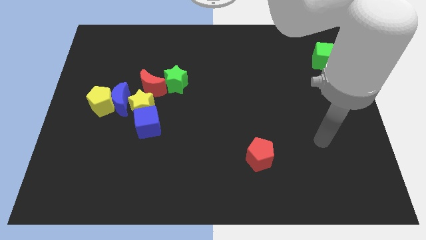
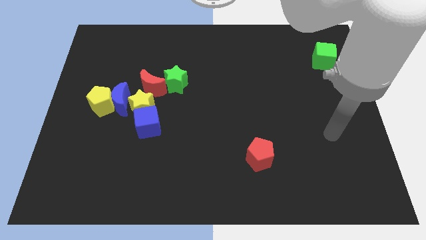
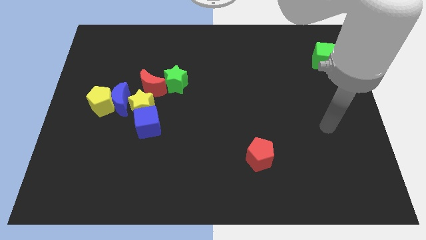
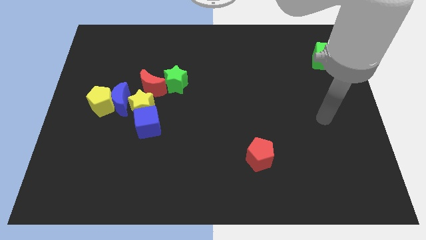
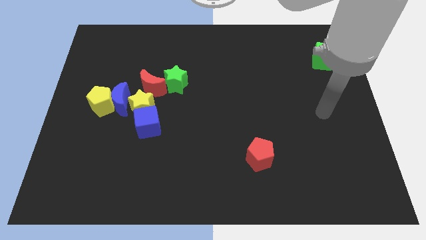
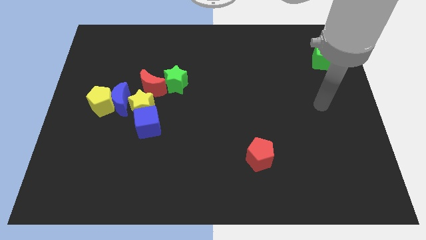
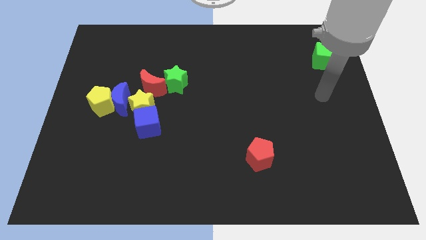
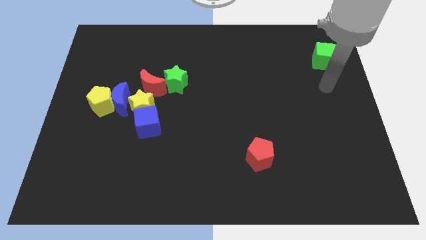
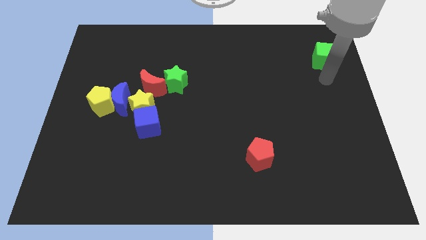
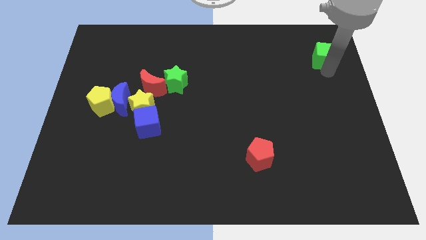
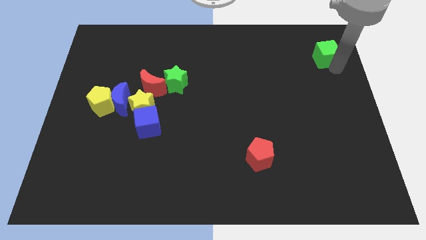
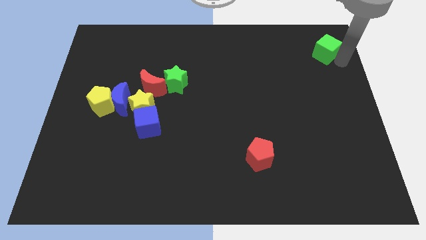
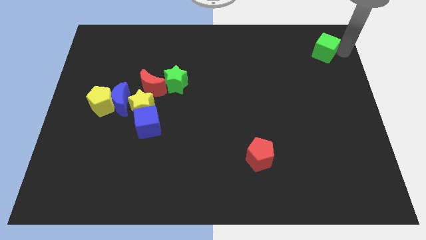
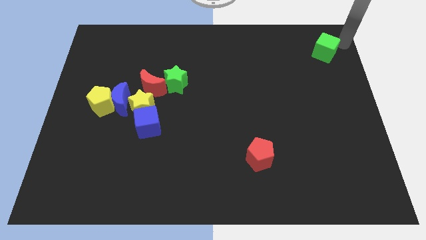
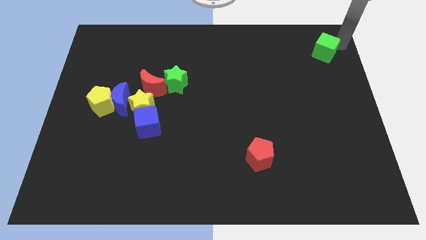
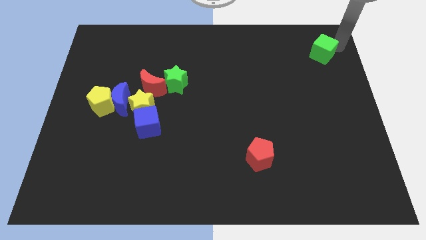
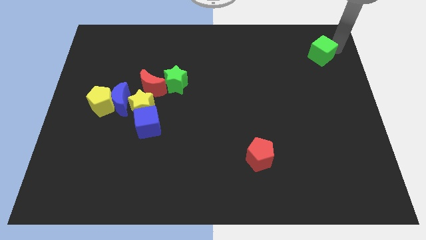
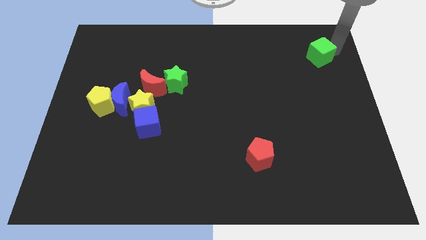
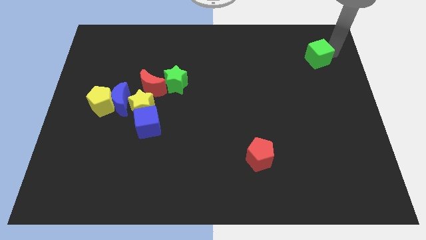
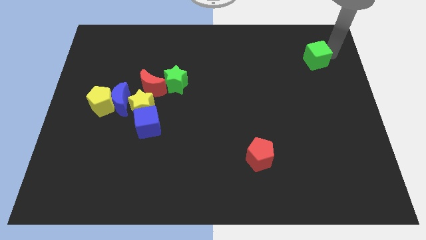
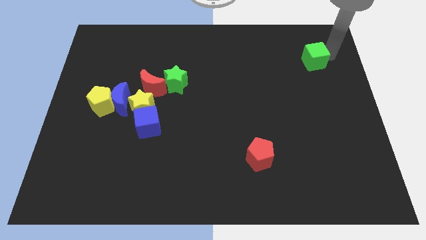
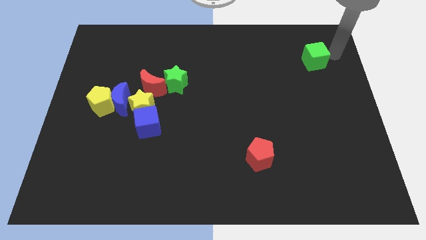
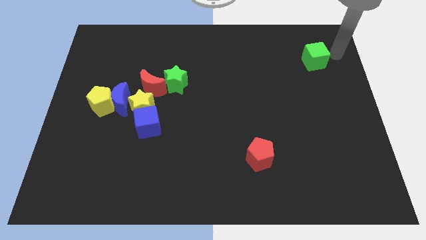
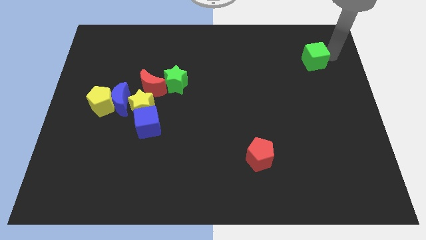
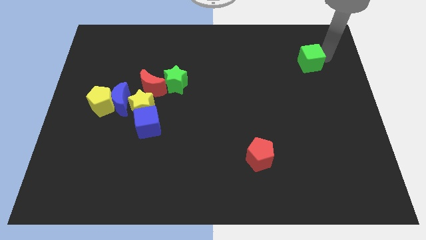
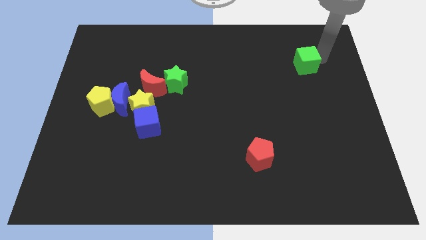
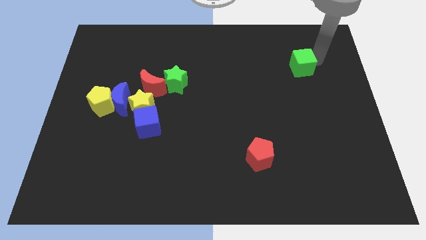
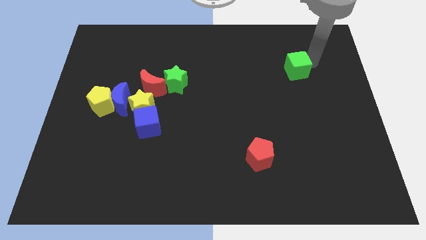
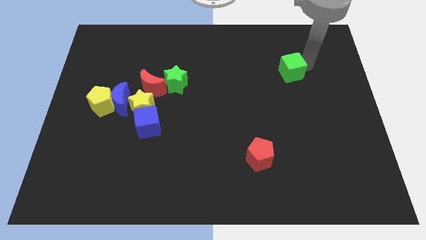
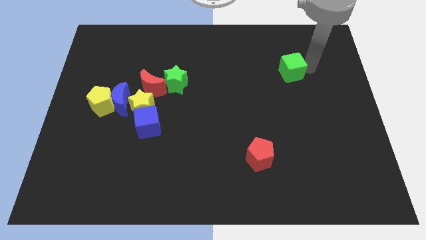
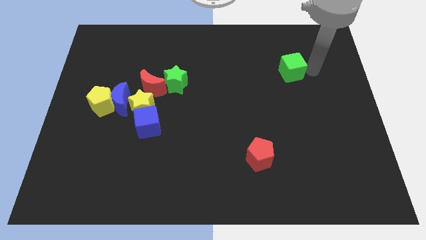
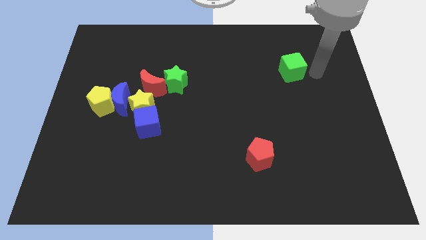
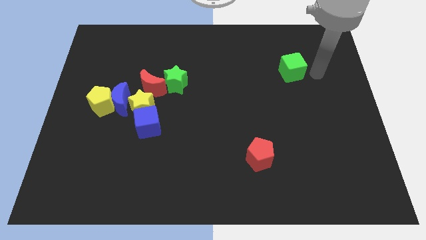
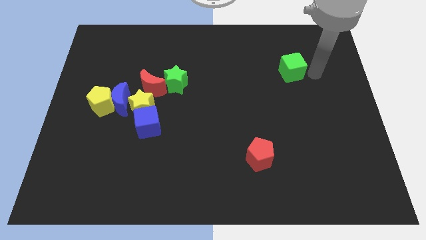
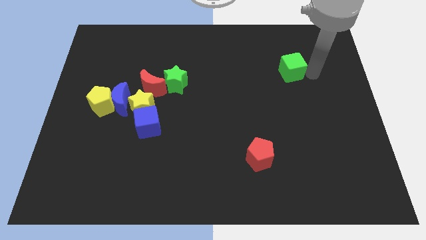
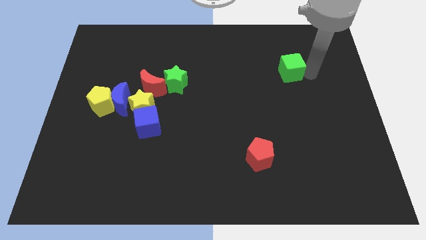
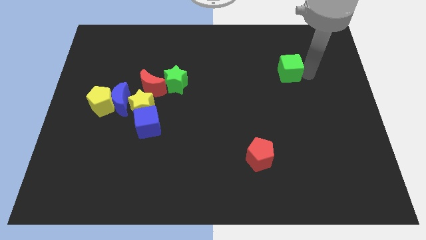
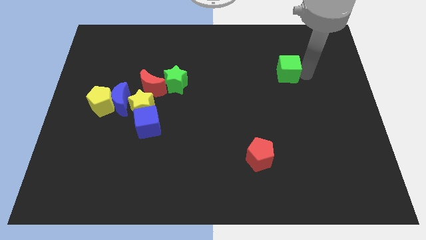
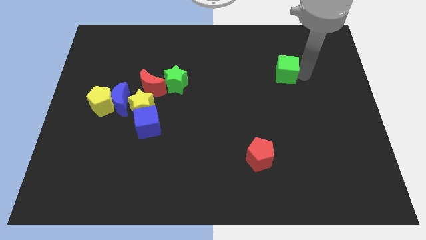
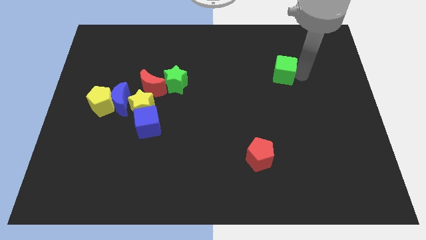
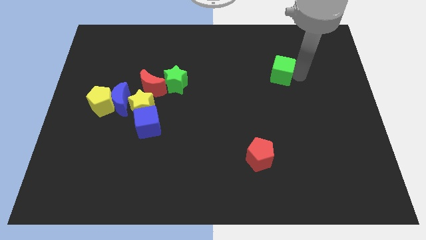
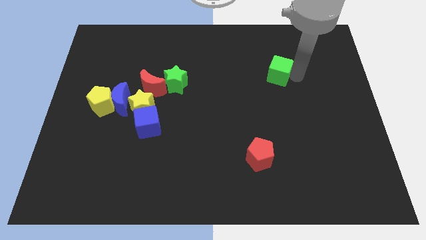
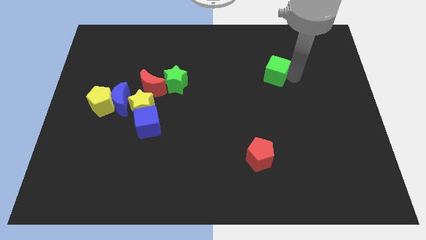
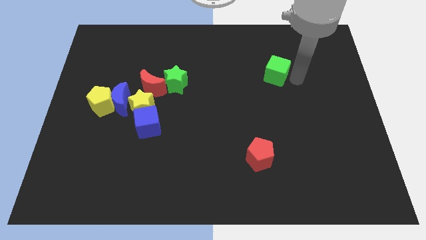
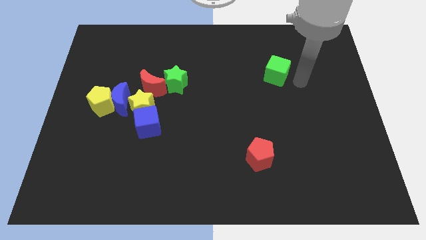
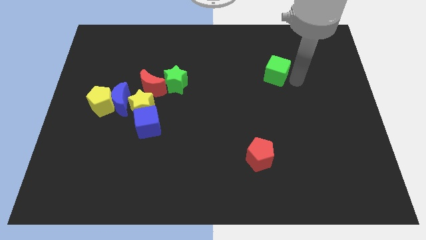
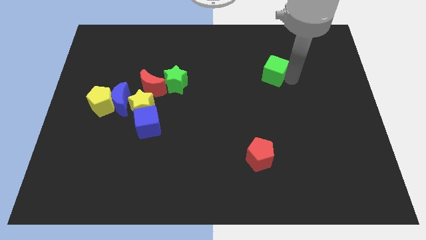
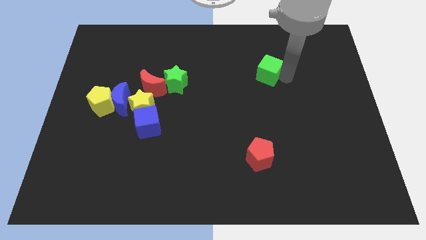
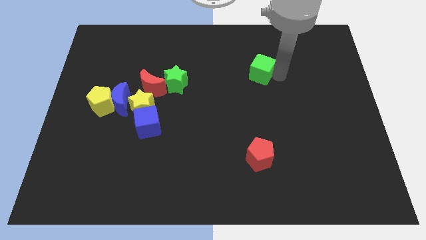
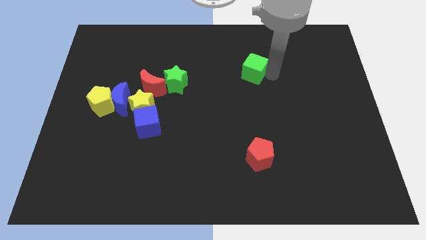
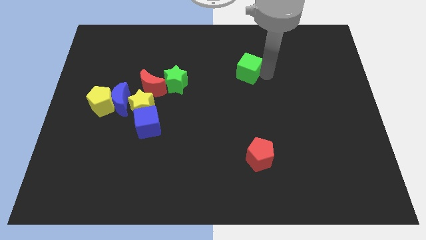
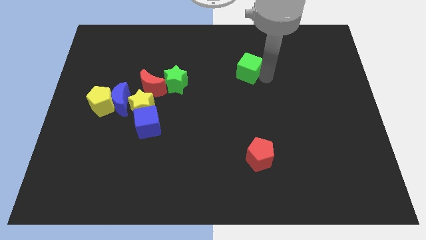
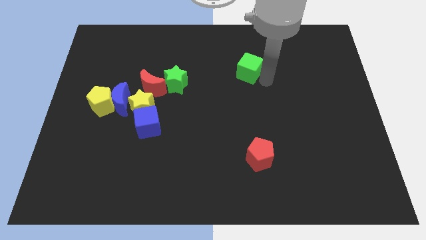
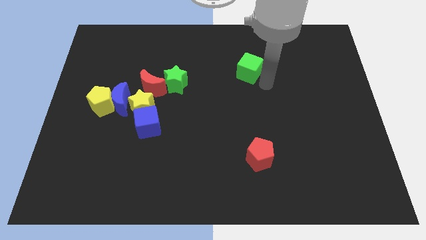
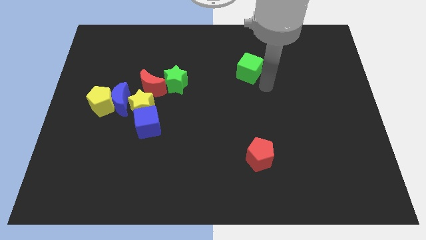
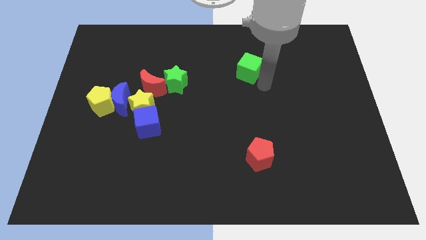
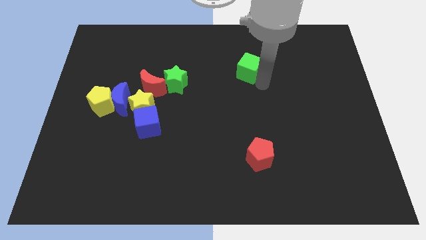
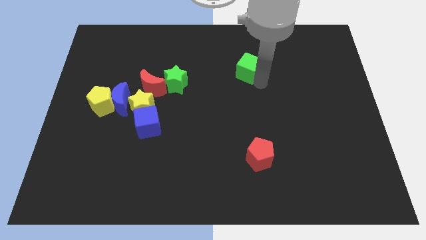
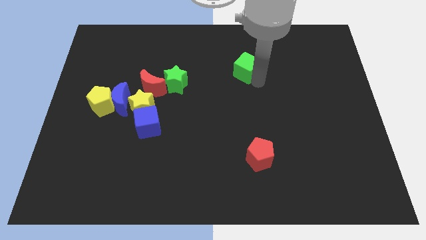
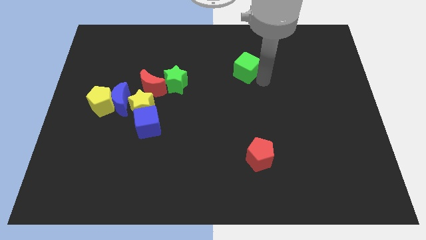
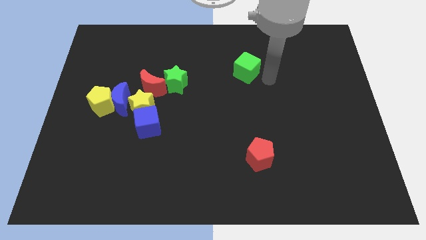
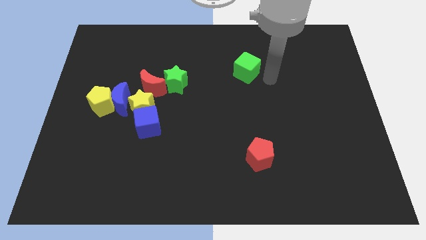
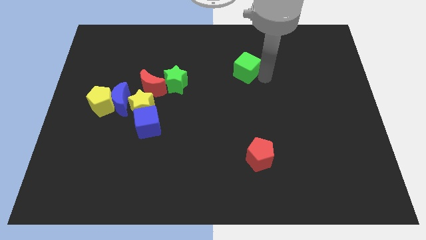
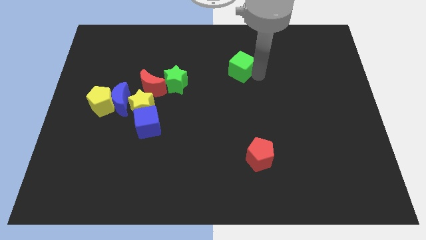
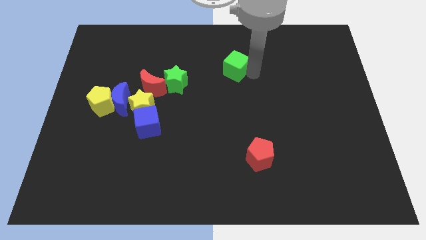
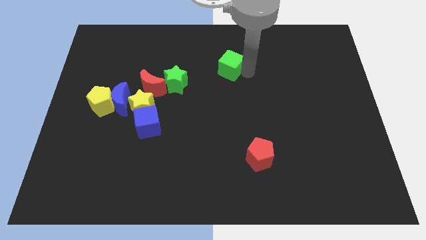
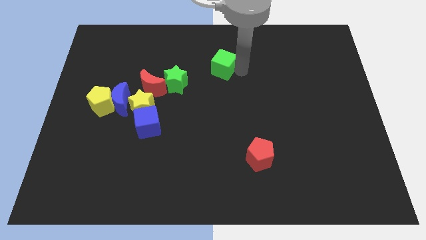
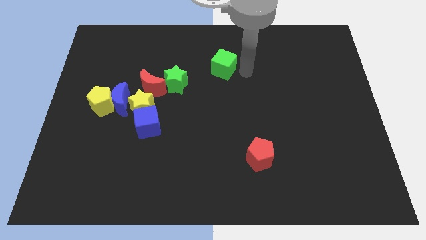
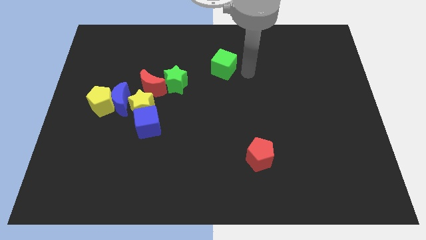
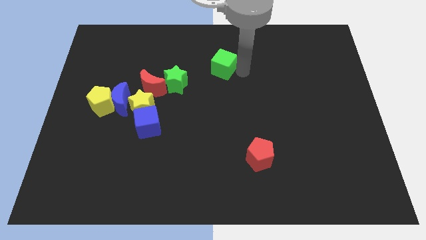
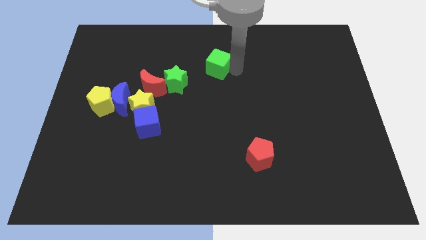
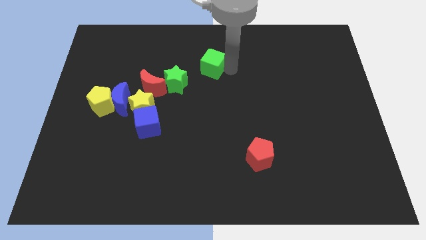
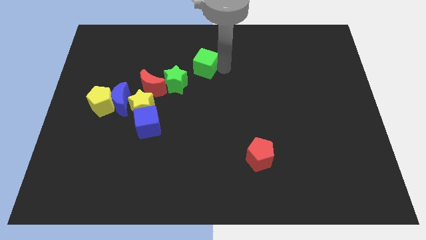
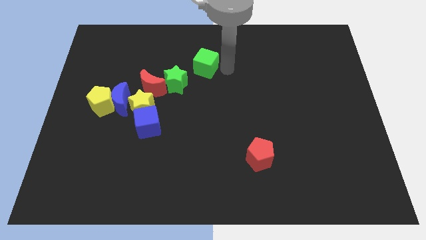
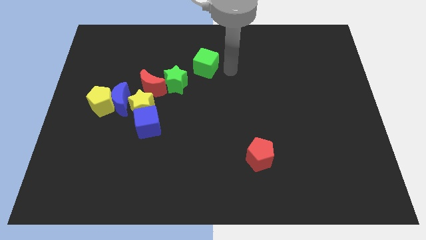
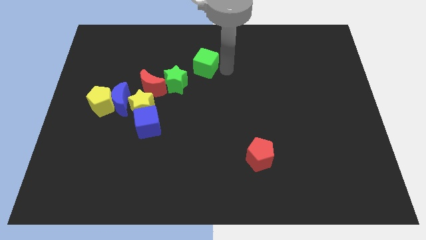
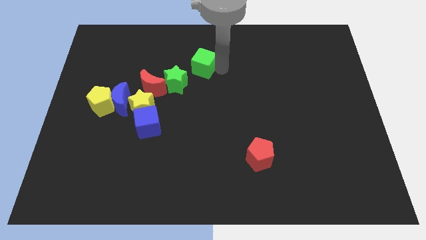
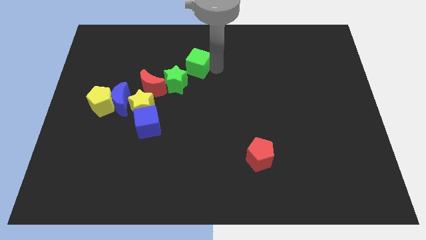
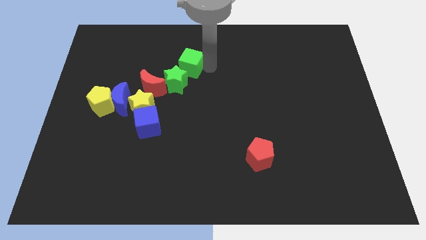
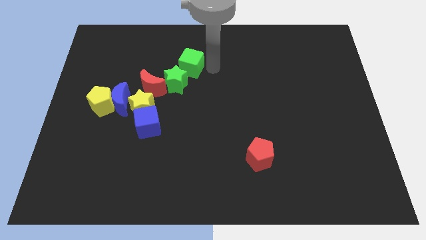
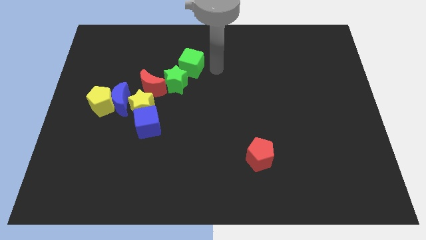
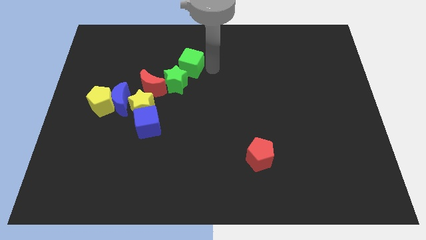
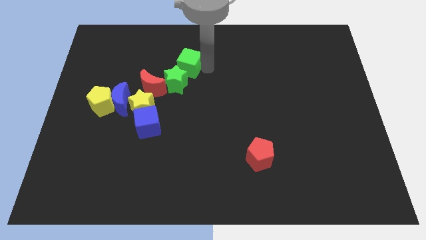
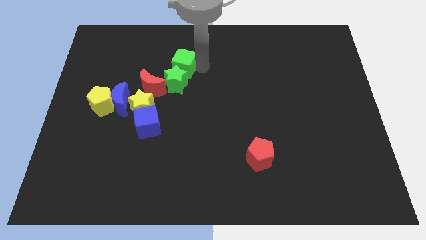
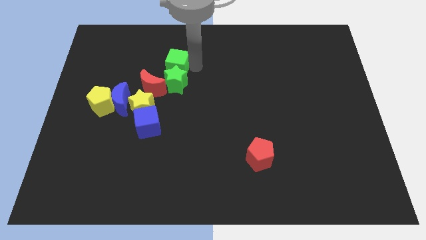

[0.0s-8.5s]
push the green cube to the top left side of the green star
